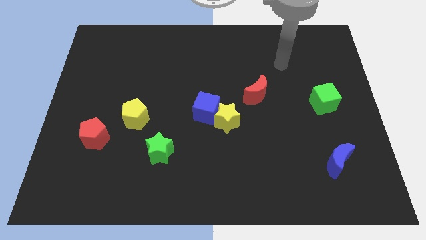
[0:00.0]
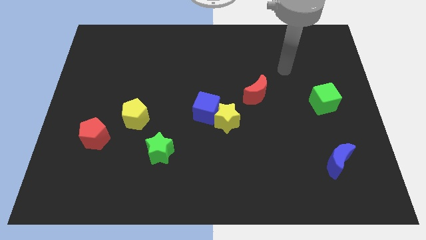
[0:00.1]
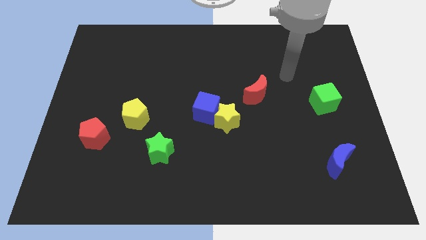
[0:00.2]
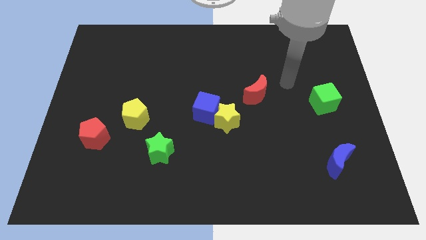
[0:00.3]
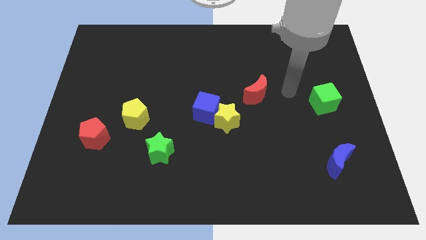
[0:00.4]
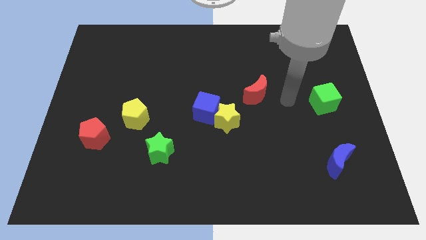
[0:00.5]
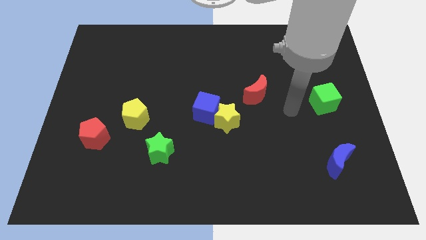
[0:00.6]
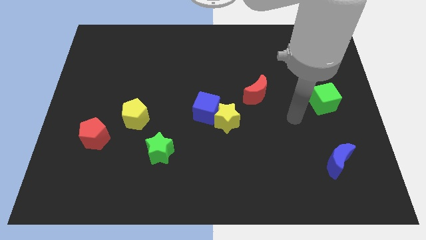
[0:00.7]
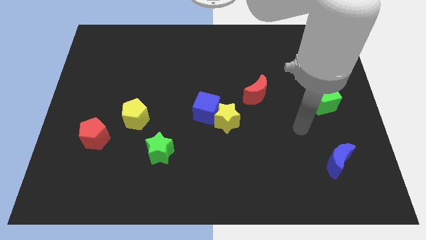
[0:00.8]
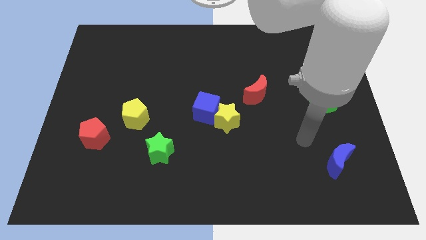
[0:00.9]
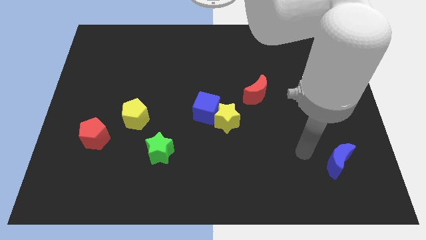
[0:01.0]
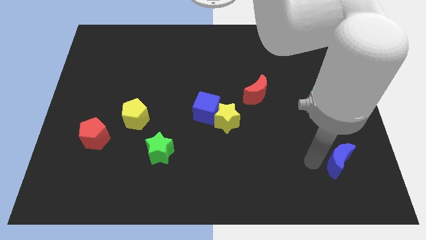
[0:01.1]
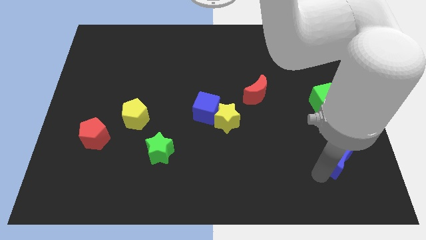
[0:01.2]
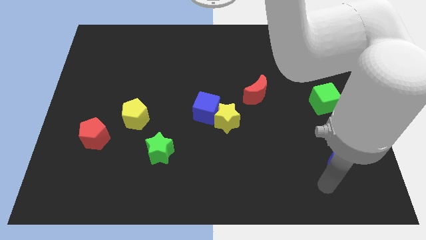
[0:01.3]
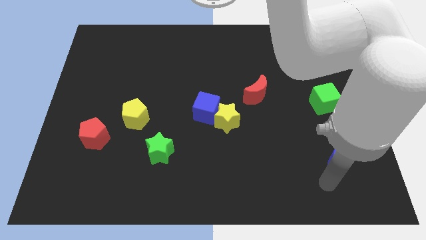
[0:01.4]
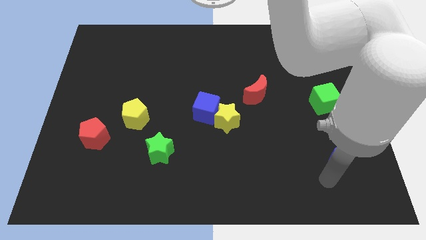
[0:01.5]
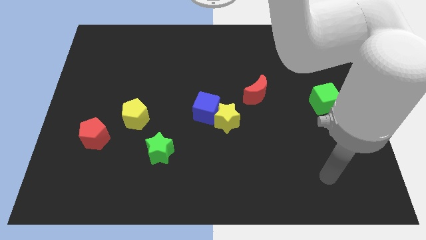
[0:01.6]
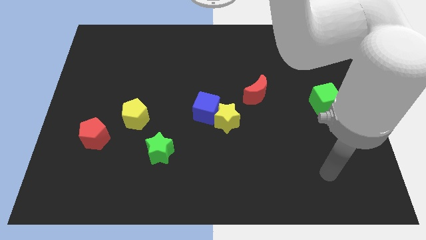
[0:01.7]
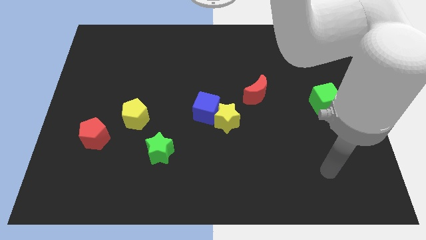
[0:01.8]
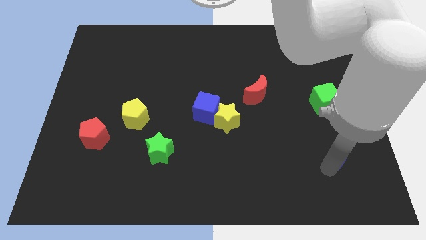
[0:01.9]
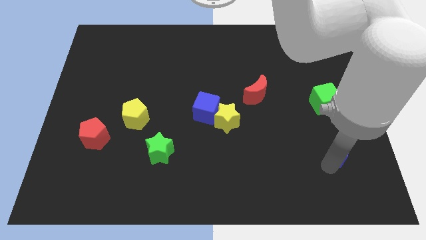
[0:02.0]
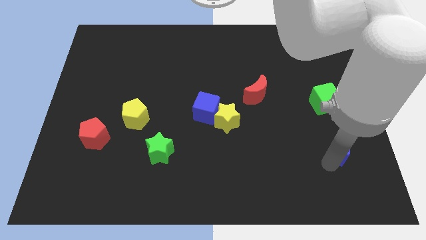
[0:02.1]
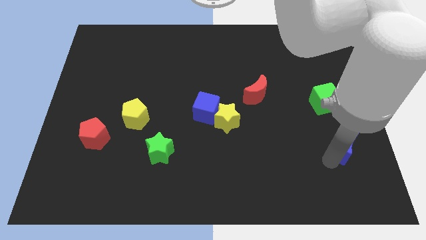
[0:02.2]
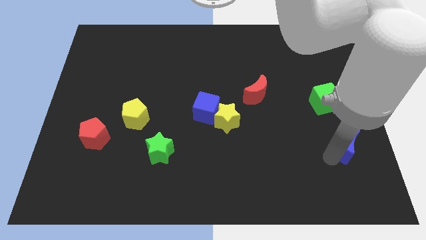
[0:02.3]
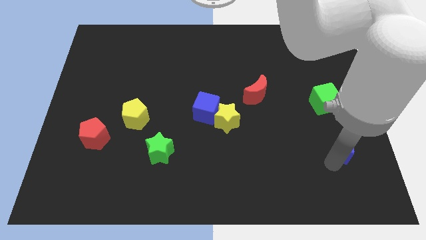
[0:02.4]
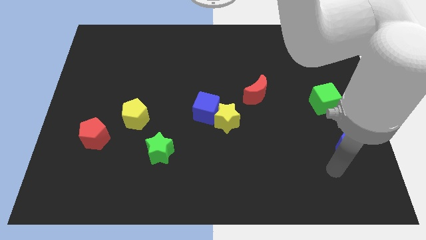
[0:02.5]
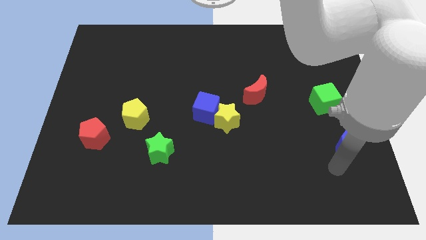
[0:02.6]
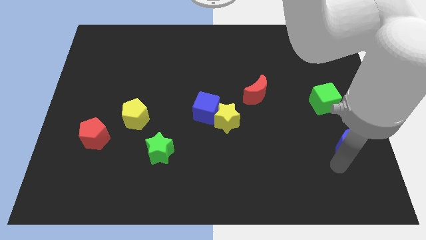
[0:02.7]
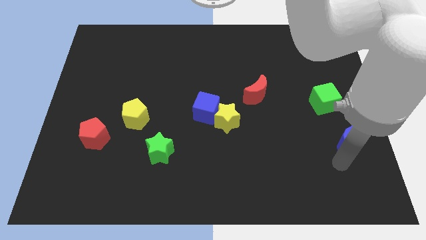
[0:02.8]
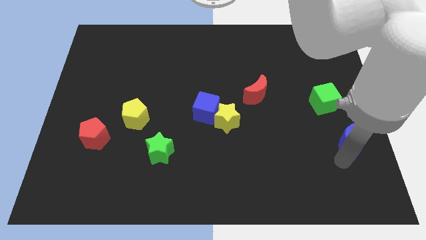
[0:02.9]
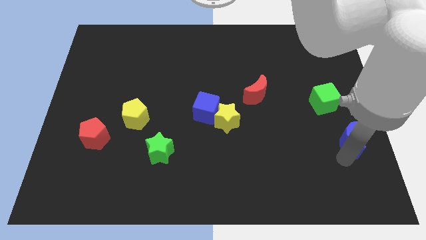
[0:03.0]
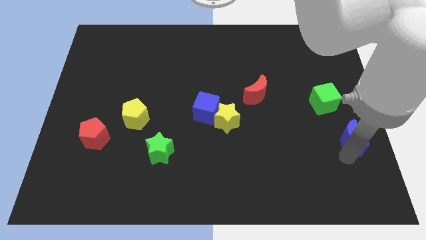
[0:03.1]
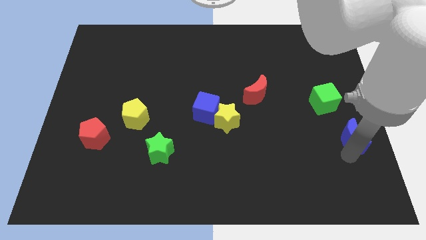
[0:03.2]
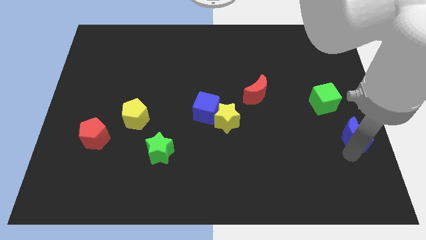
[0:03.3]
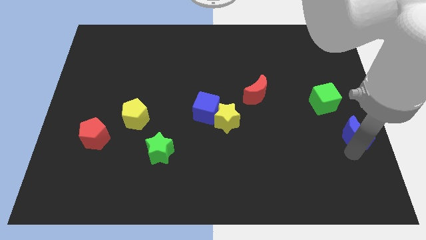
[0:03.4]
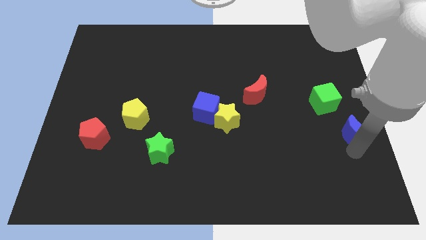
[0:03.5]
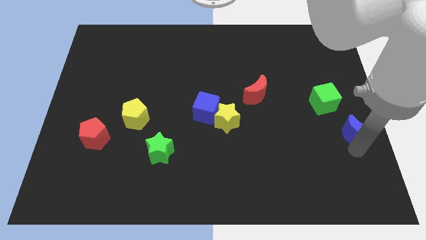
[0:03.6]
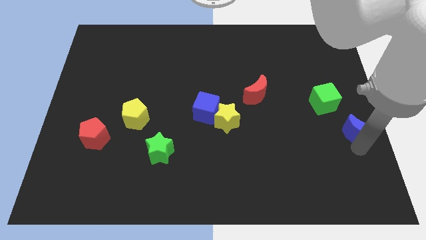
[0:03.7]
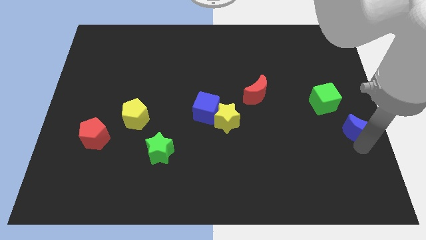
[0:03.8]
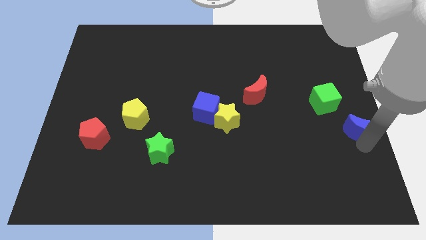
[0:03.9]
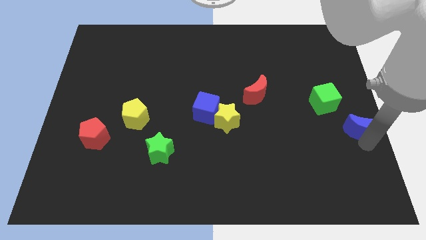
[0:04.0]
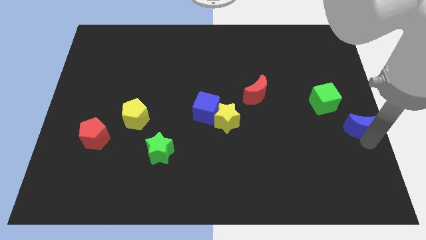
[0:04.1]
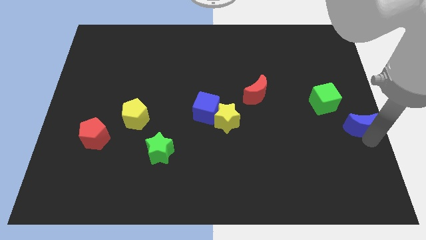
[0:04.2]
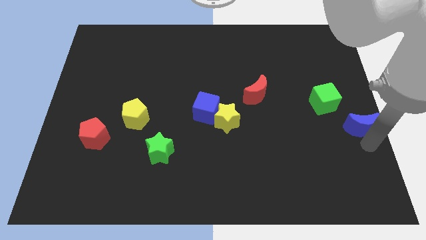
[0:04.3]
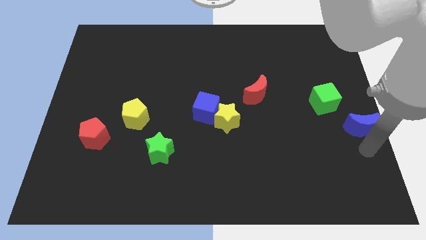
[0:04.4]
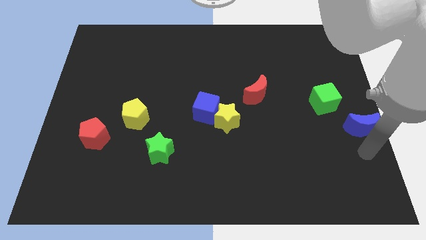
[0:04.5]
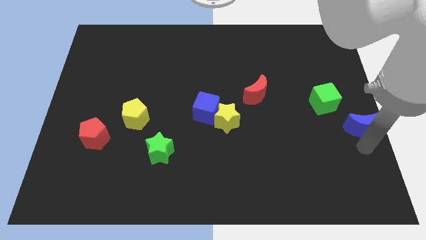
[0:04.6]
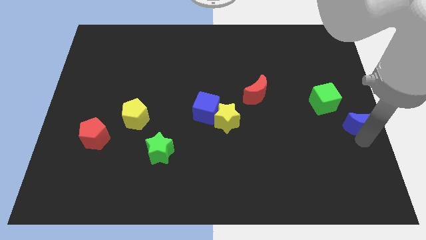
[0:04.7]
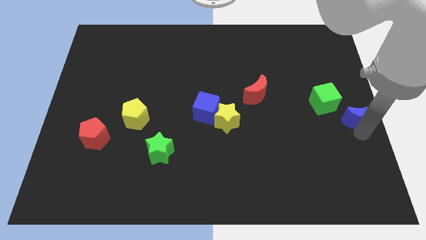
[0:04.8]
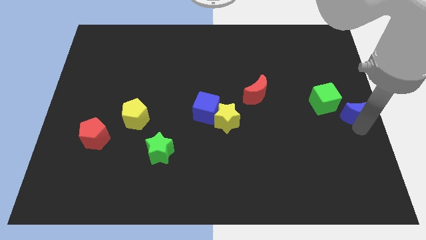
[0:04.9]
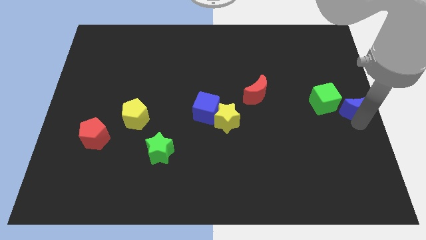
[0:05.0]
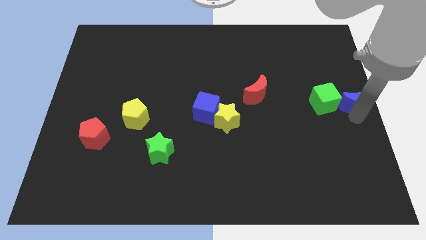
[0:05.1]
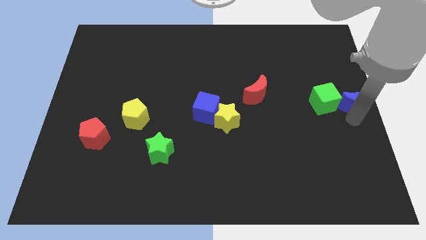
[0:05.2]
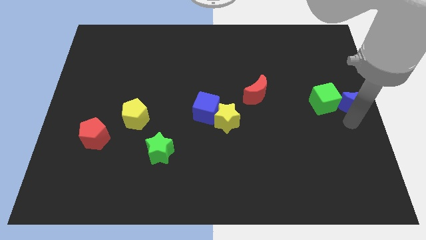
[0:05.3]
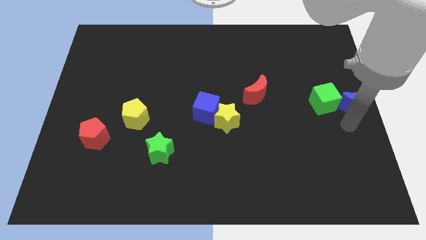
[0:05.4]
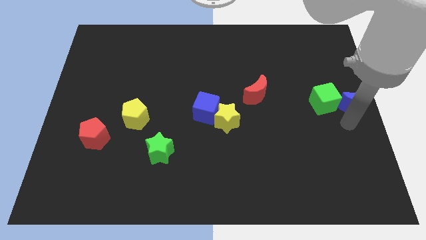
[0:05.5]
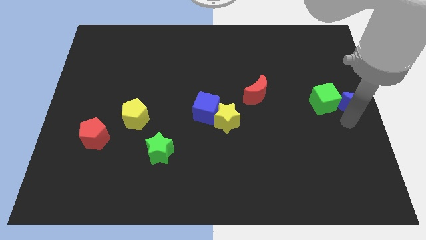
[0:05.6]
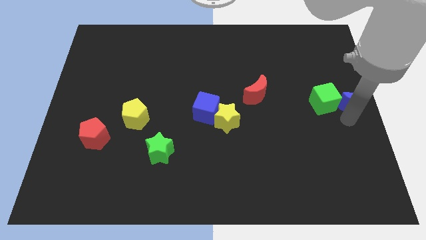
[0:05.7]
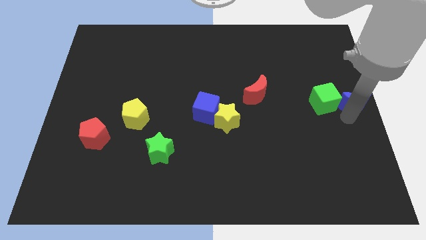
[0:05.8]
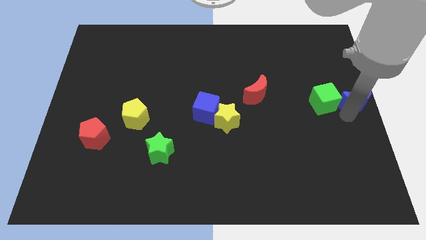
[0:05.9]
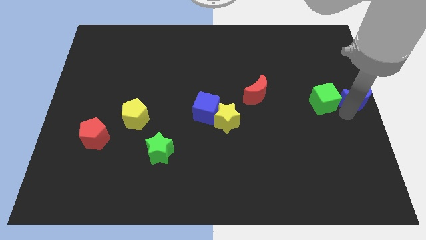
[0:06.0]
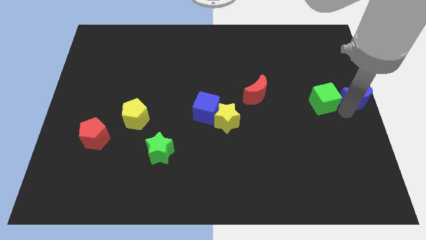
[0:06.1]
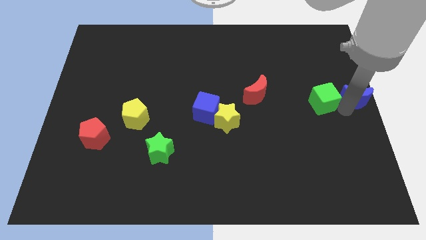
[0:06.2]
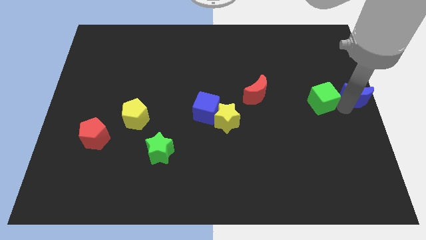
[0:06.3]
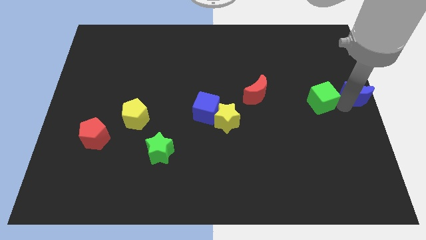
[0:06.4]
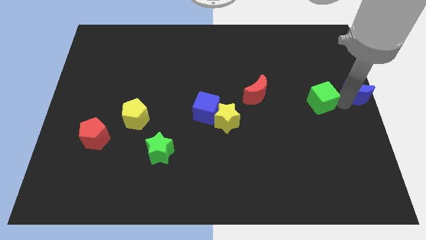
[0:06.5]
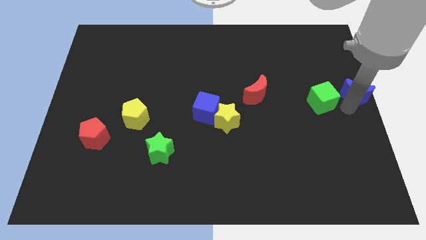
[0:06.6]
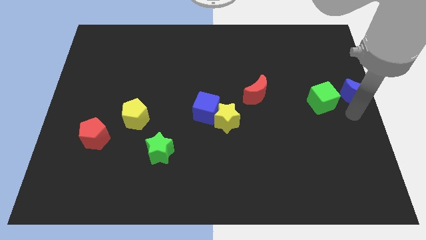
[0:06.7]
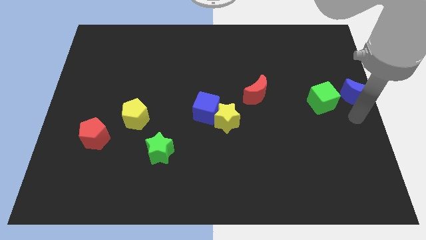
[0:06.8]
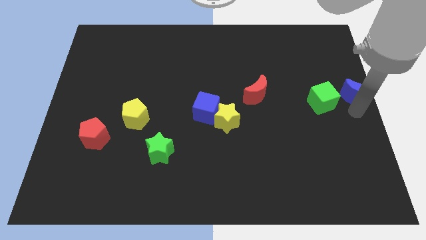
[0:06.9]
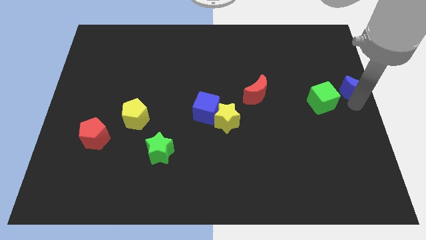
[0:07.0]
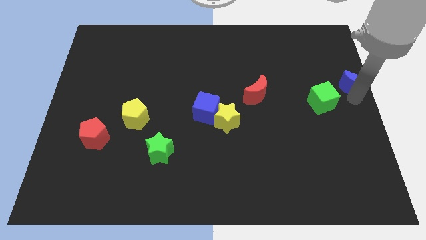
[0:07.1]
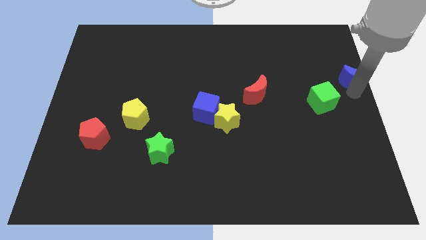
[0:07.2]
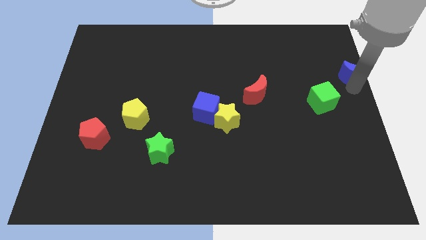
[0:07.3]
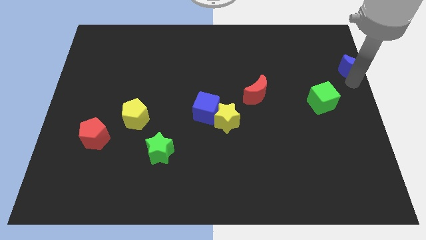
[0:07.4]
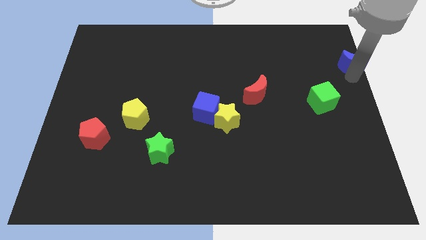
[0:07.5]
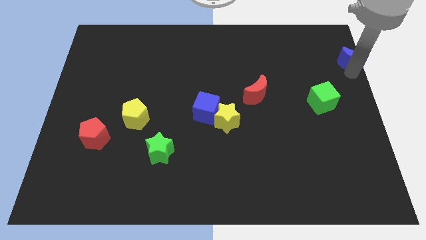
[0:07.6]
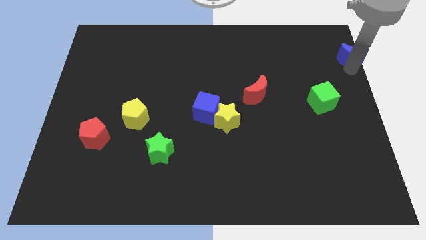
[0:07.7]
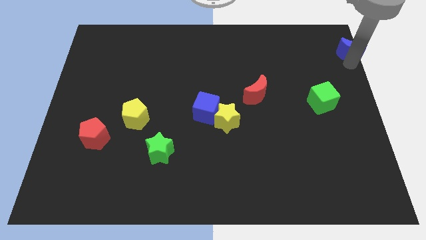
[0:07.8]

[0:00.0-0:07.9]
push the blue moon to the top right of the board
